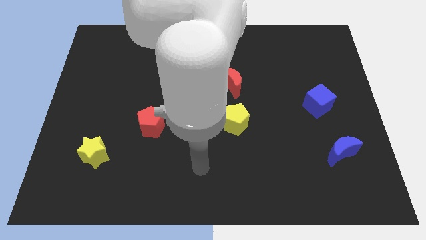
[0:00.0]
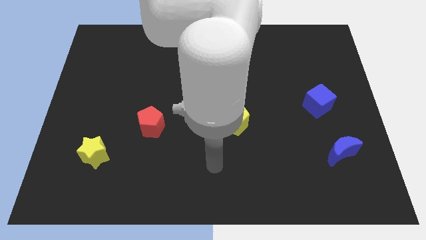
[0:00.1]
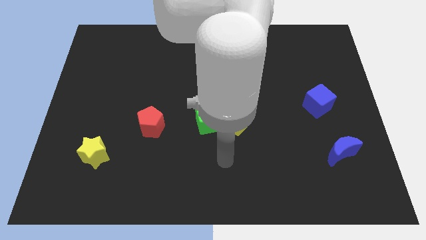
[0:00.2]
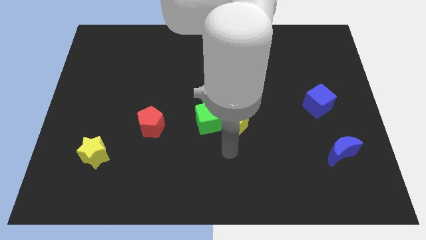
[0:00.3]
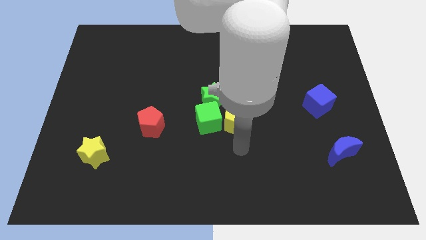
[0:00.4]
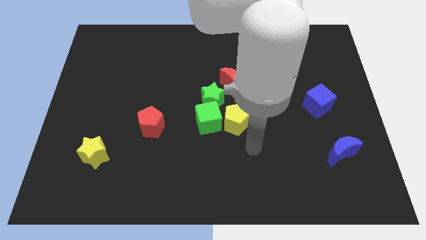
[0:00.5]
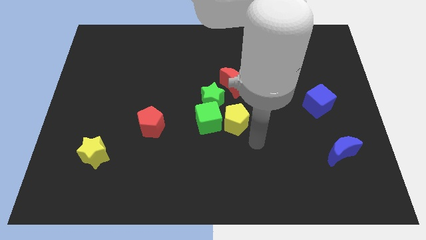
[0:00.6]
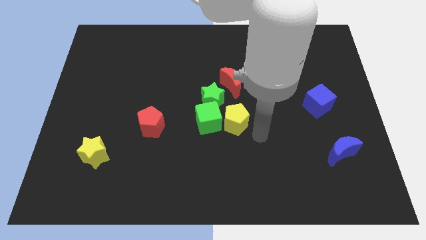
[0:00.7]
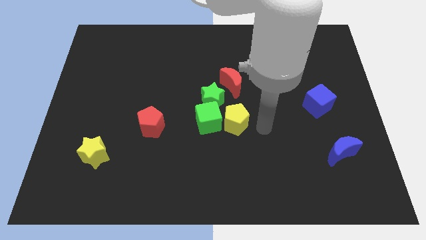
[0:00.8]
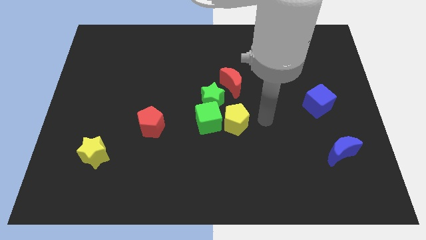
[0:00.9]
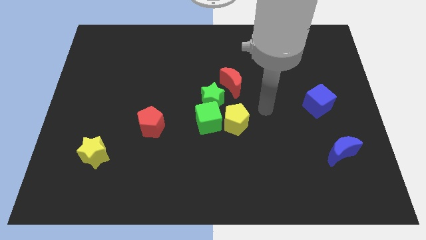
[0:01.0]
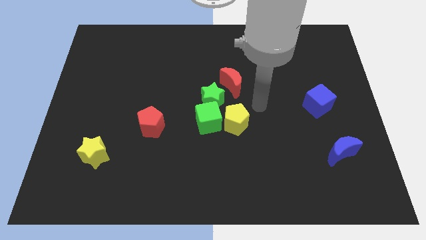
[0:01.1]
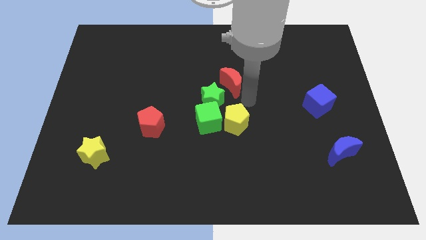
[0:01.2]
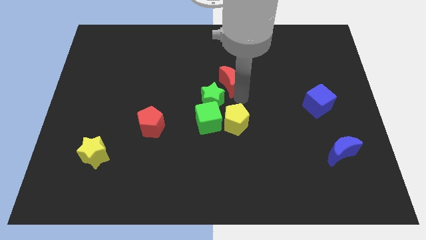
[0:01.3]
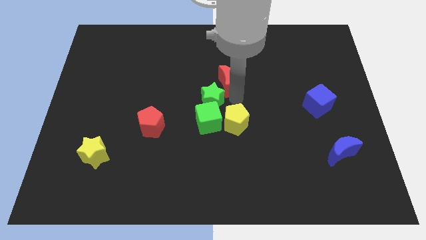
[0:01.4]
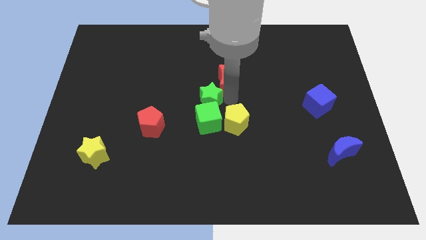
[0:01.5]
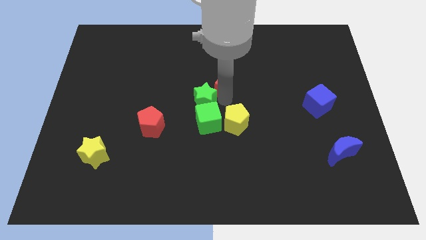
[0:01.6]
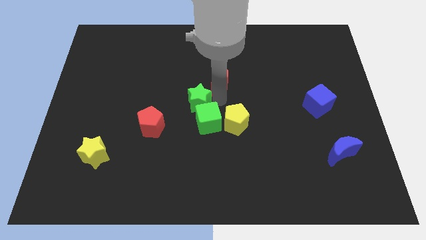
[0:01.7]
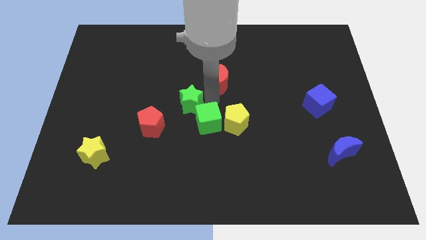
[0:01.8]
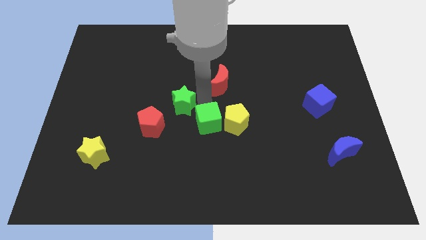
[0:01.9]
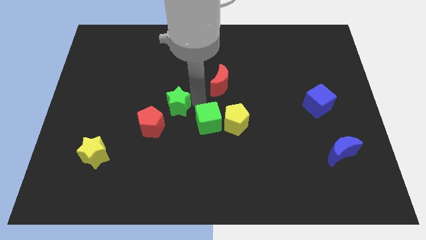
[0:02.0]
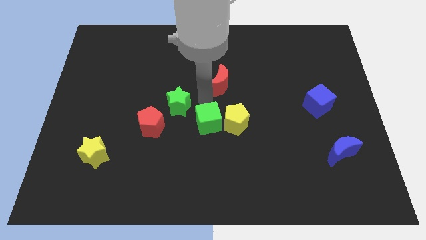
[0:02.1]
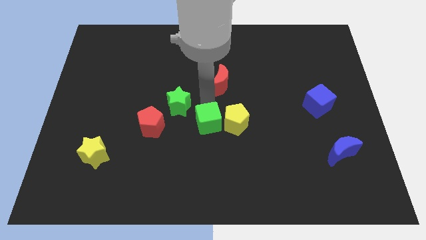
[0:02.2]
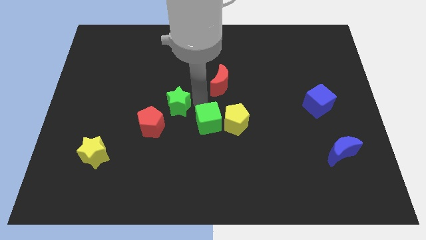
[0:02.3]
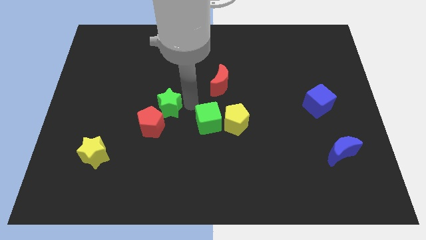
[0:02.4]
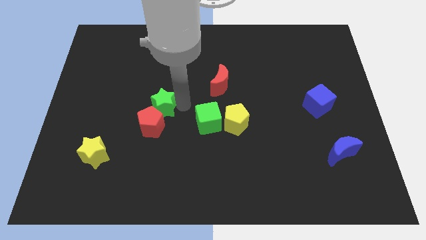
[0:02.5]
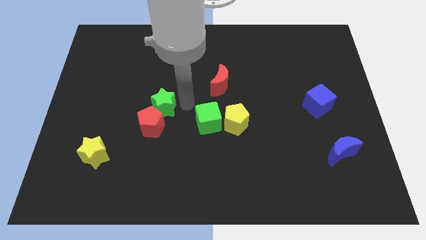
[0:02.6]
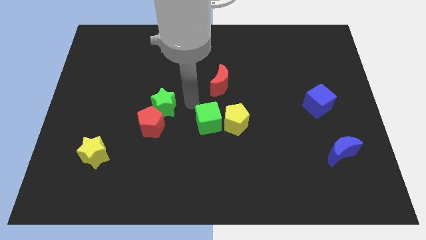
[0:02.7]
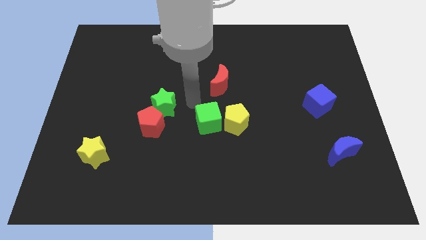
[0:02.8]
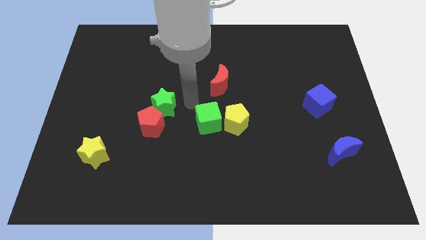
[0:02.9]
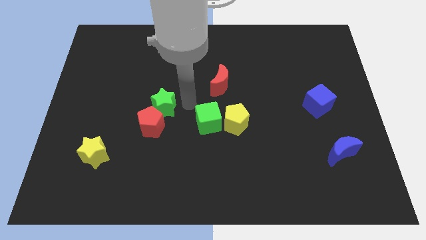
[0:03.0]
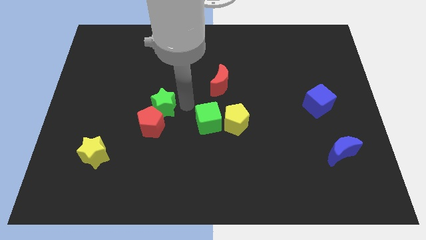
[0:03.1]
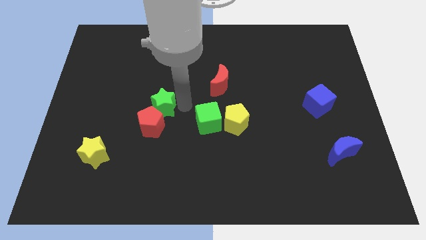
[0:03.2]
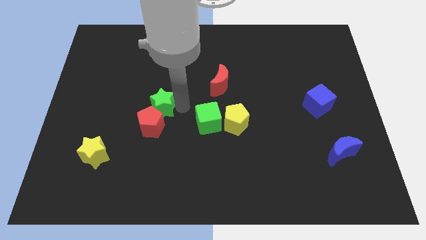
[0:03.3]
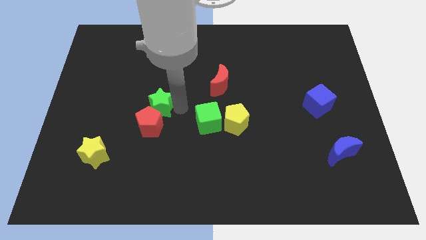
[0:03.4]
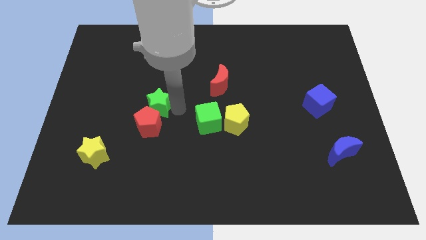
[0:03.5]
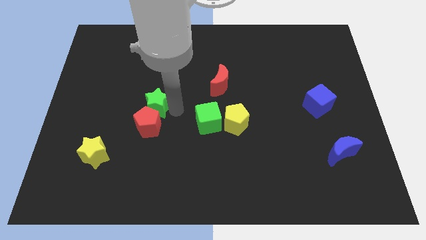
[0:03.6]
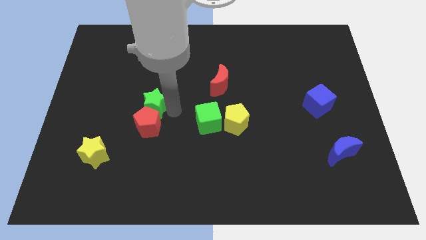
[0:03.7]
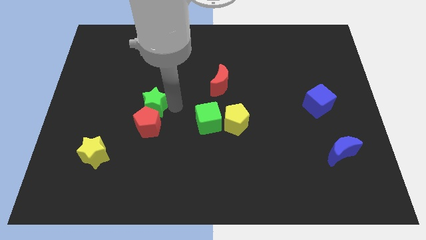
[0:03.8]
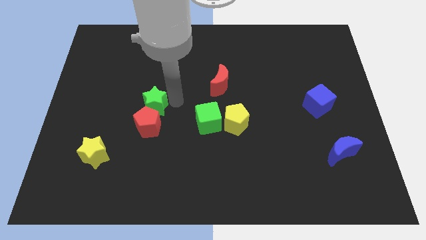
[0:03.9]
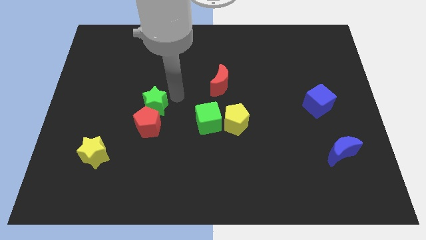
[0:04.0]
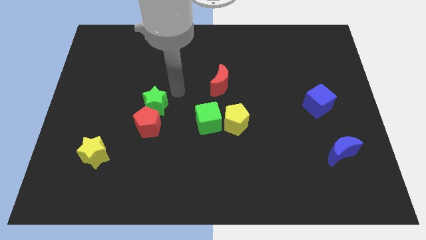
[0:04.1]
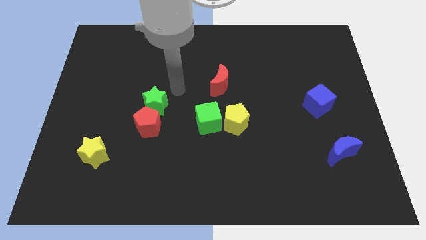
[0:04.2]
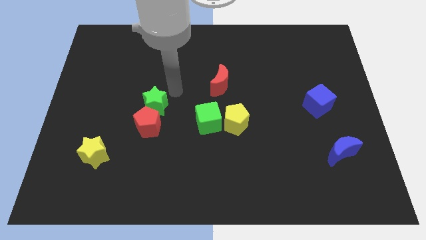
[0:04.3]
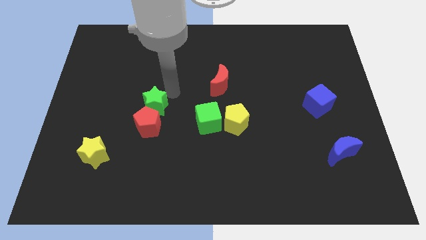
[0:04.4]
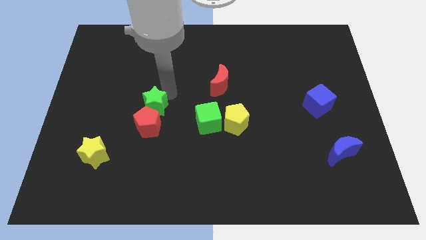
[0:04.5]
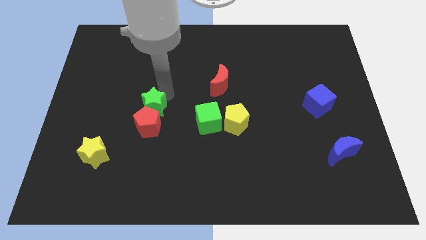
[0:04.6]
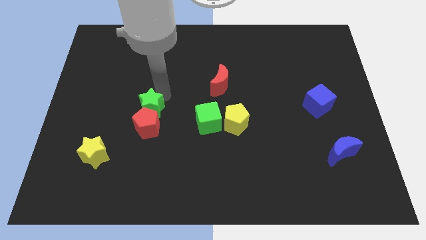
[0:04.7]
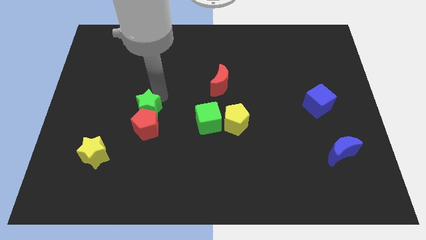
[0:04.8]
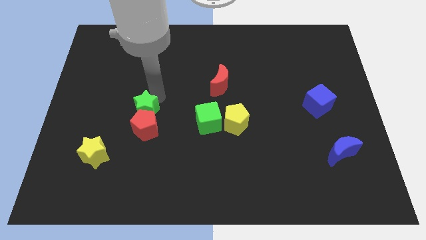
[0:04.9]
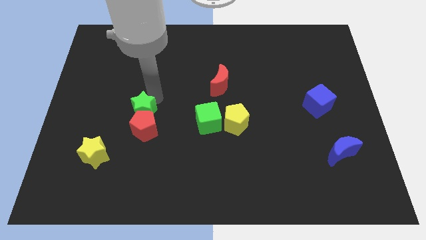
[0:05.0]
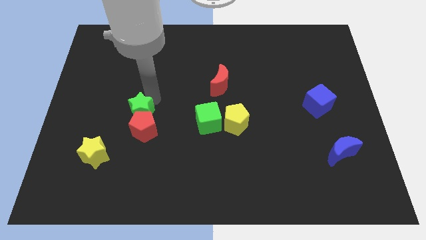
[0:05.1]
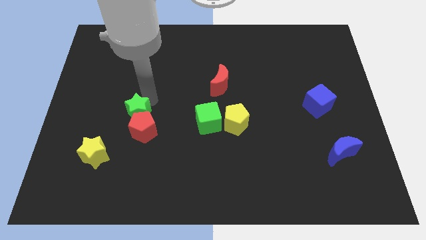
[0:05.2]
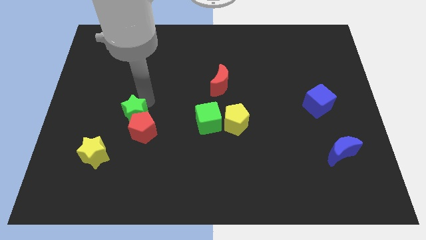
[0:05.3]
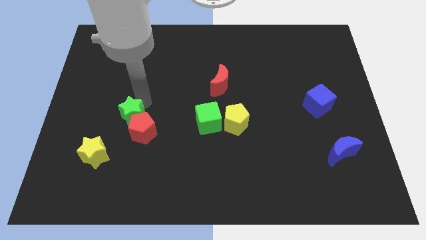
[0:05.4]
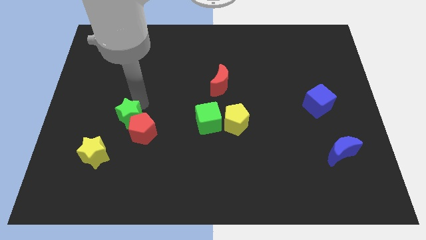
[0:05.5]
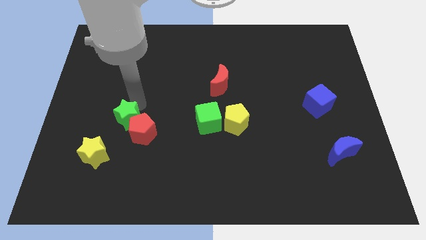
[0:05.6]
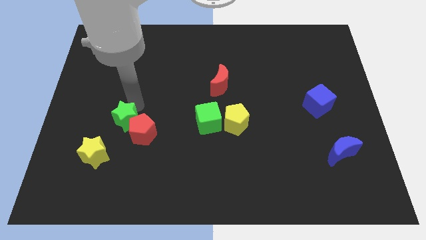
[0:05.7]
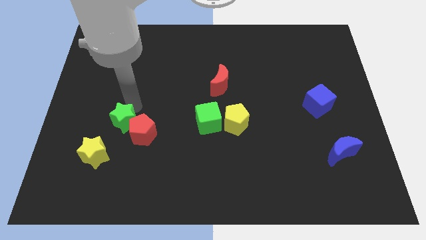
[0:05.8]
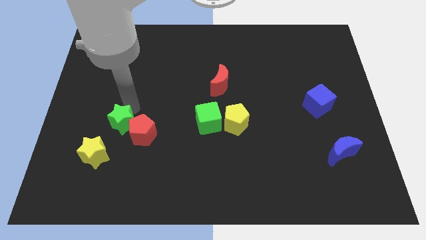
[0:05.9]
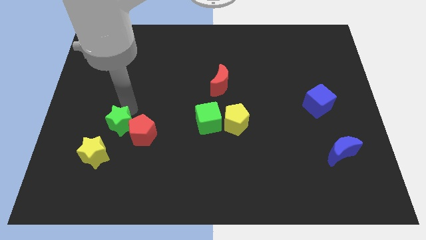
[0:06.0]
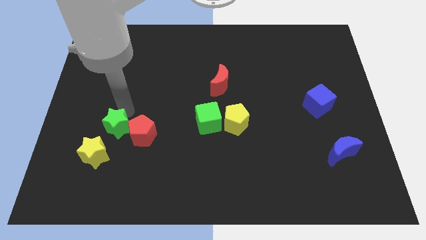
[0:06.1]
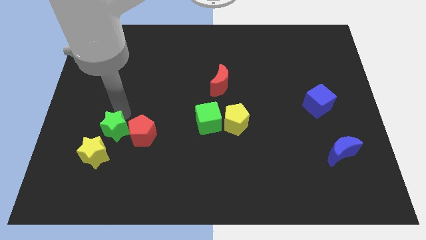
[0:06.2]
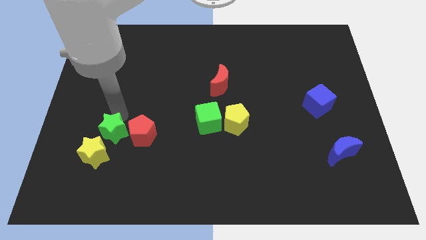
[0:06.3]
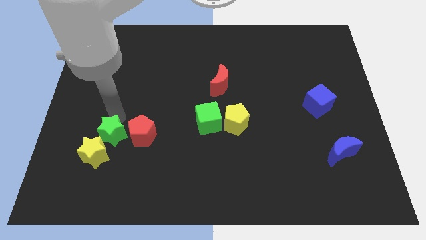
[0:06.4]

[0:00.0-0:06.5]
slide the green star next to the yellow star

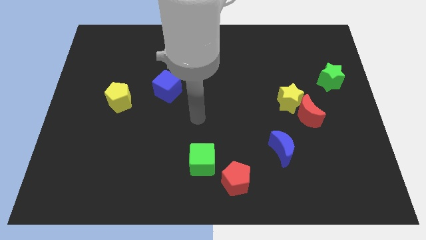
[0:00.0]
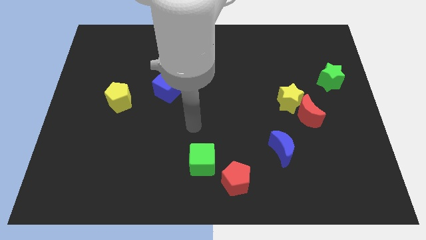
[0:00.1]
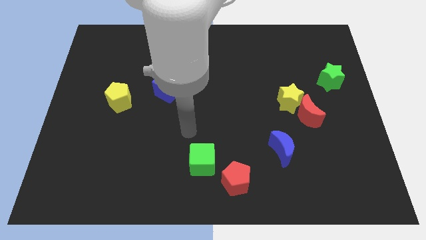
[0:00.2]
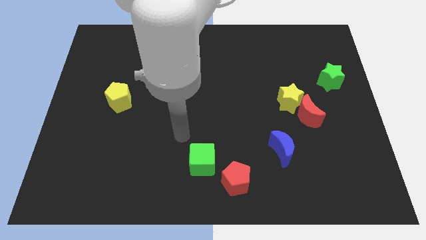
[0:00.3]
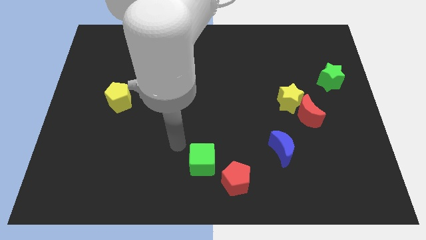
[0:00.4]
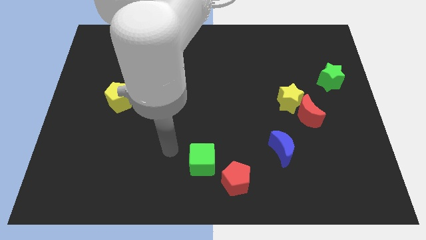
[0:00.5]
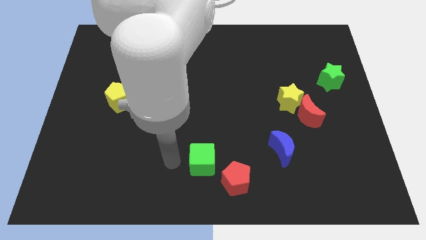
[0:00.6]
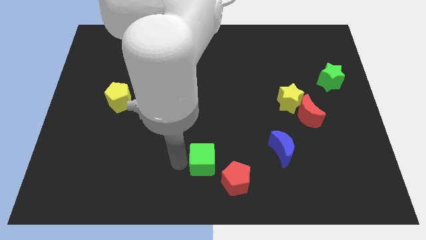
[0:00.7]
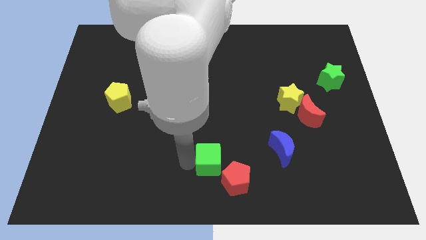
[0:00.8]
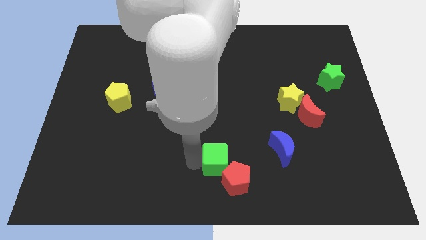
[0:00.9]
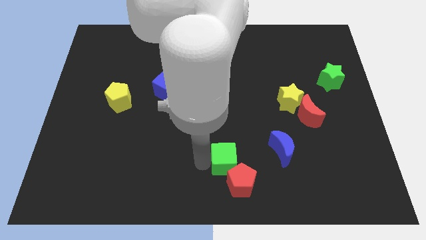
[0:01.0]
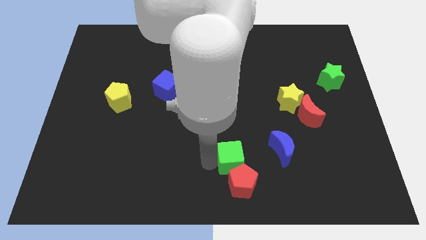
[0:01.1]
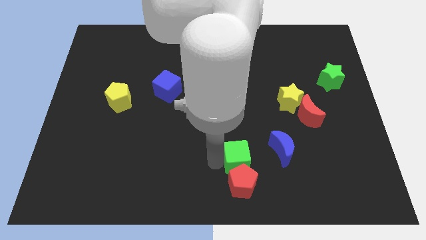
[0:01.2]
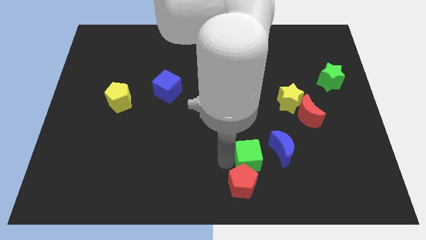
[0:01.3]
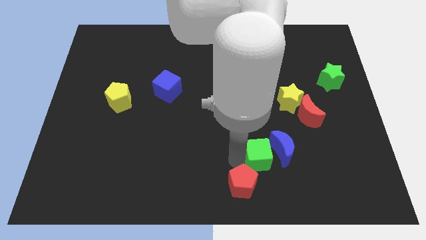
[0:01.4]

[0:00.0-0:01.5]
move the green cube close to the blue moon

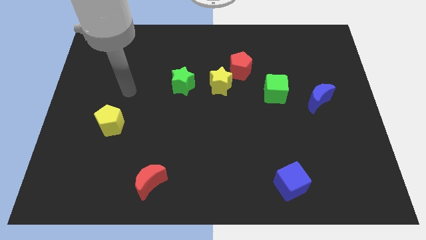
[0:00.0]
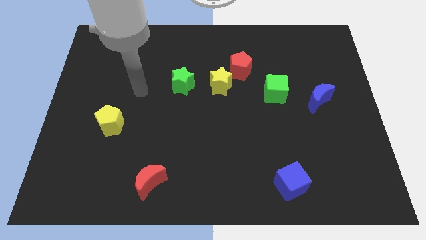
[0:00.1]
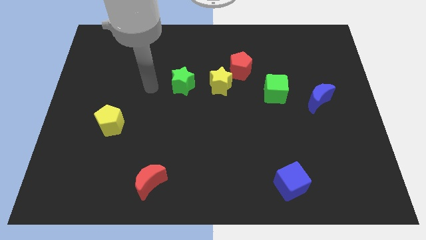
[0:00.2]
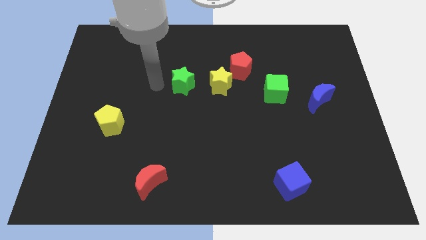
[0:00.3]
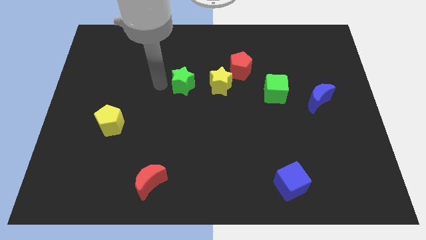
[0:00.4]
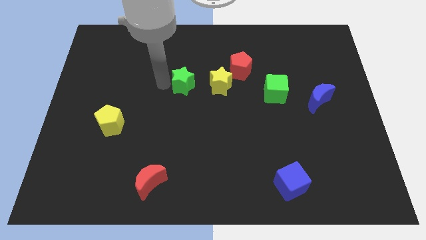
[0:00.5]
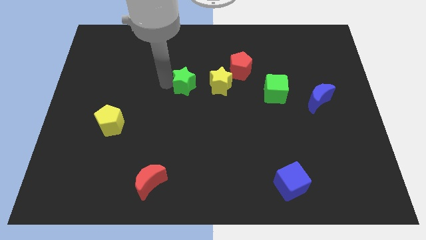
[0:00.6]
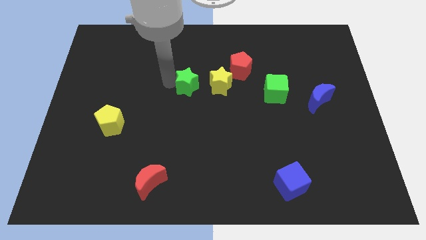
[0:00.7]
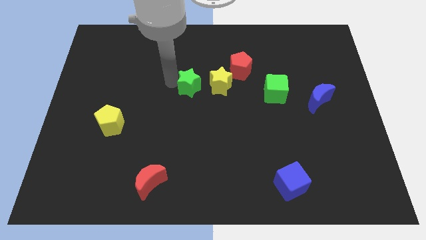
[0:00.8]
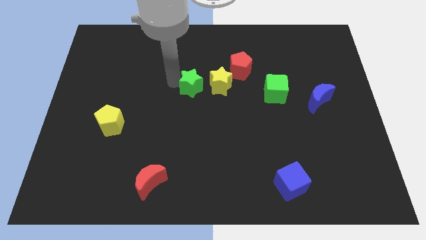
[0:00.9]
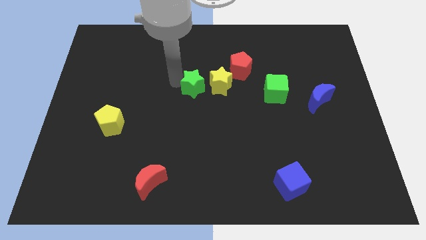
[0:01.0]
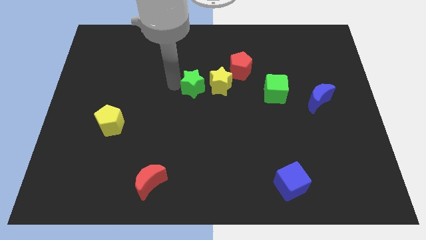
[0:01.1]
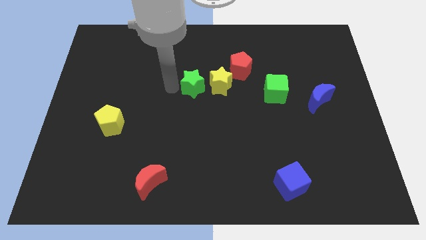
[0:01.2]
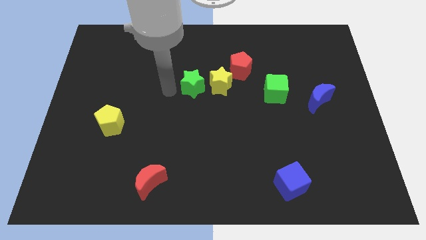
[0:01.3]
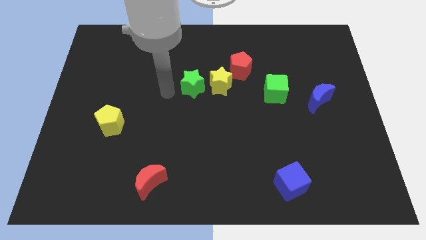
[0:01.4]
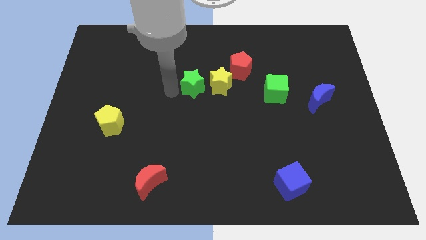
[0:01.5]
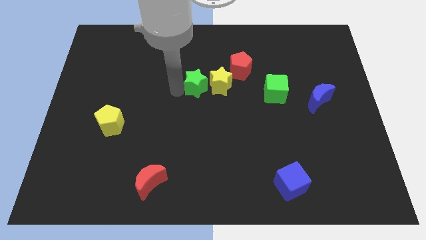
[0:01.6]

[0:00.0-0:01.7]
move the green star to the yellow star
